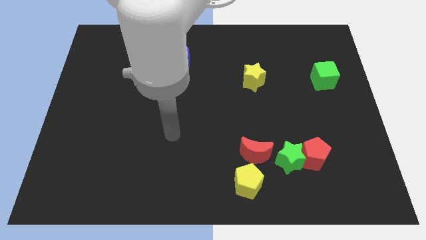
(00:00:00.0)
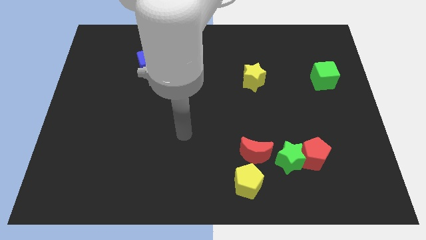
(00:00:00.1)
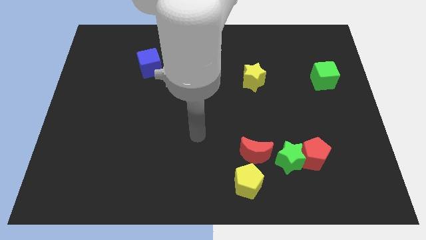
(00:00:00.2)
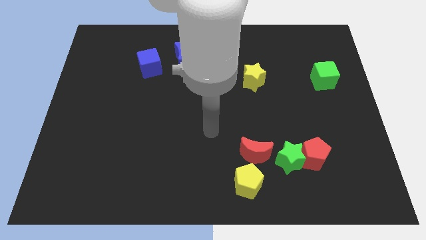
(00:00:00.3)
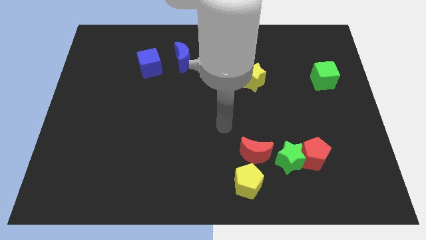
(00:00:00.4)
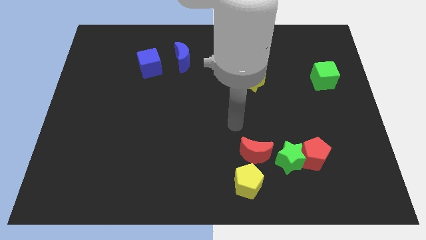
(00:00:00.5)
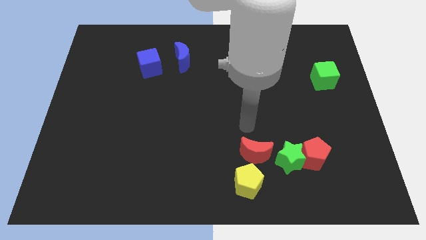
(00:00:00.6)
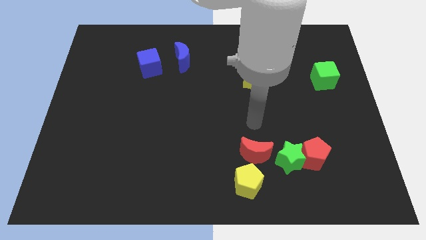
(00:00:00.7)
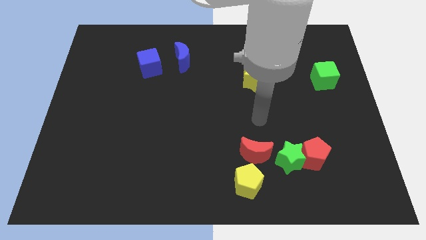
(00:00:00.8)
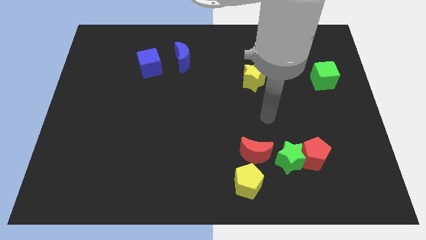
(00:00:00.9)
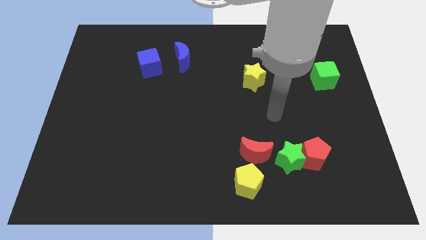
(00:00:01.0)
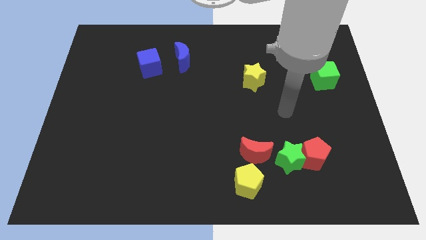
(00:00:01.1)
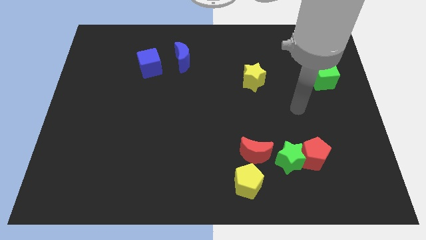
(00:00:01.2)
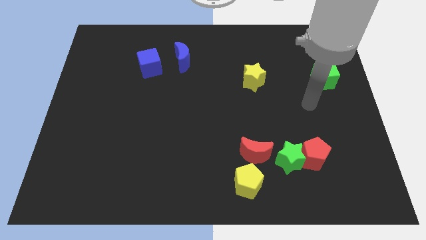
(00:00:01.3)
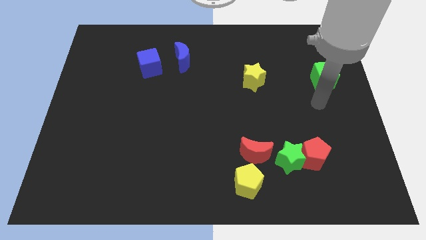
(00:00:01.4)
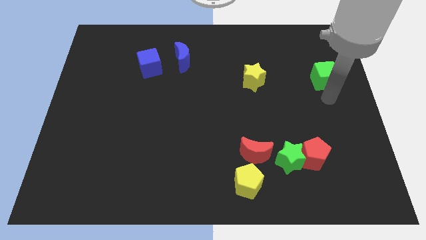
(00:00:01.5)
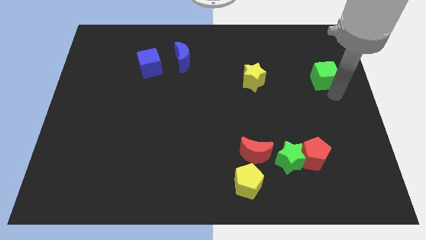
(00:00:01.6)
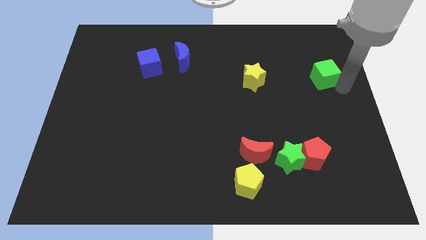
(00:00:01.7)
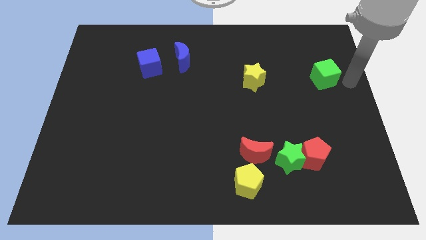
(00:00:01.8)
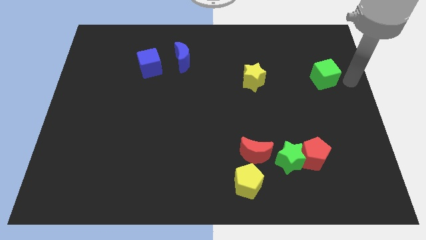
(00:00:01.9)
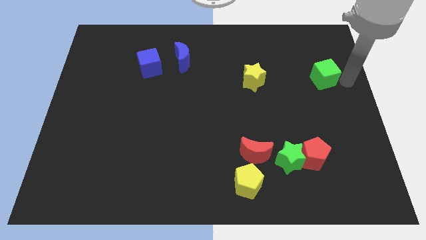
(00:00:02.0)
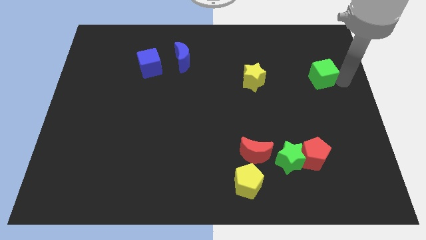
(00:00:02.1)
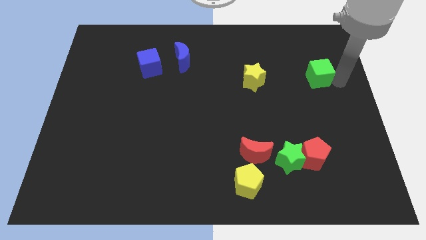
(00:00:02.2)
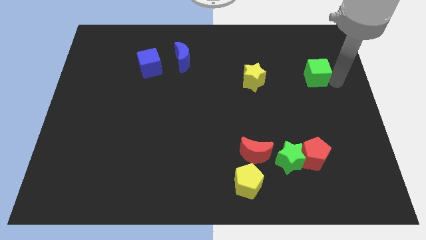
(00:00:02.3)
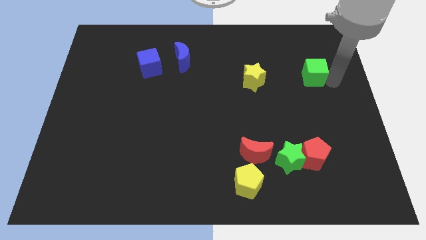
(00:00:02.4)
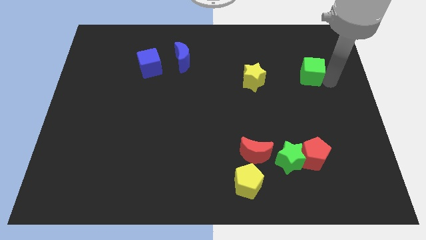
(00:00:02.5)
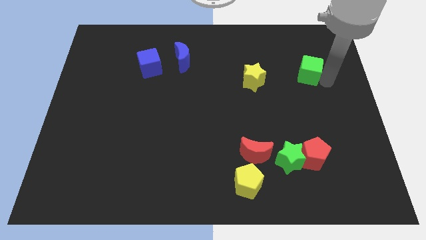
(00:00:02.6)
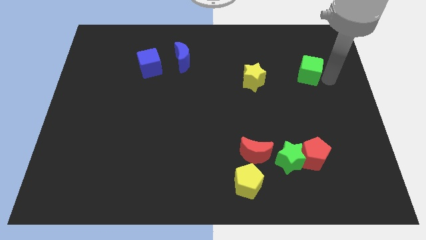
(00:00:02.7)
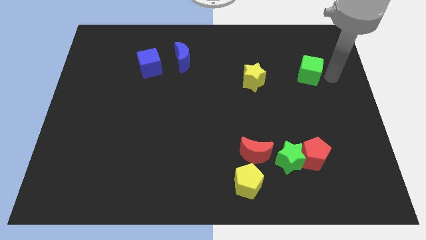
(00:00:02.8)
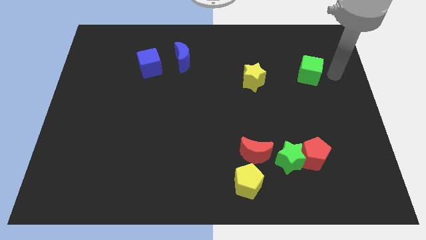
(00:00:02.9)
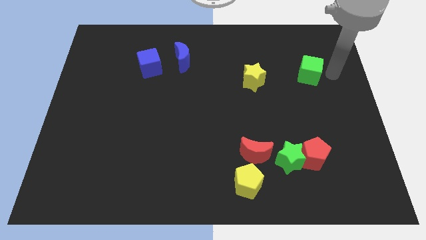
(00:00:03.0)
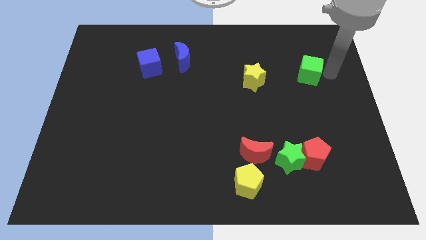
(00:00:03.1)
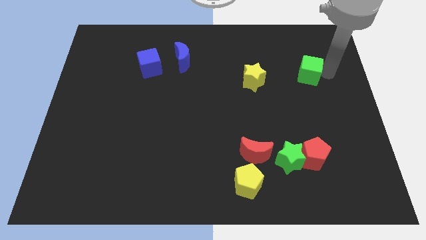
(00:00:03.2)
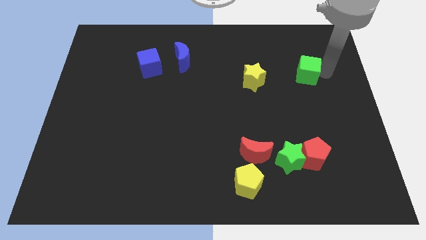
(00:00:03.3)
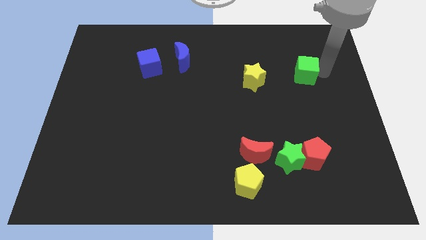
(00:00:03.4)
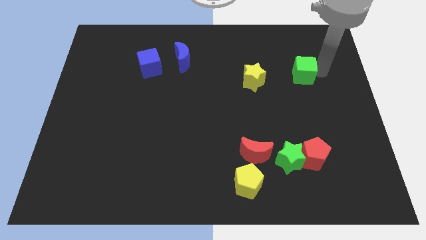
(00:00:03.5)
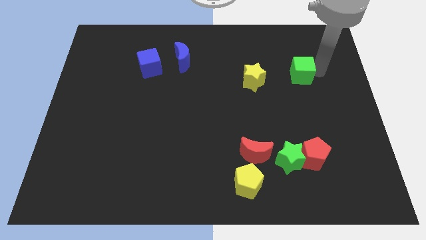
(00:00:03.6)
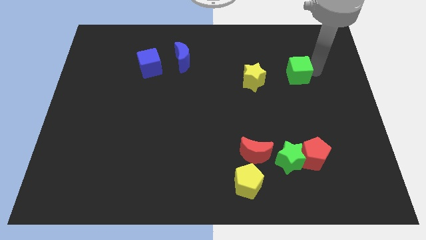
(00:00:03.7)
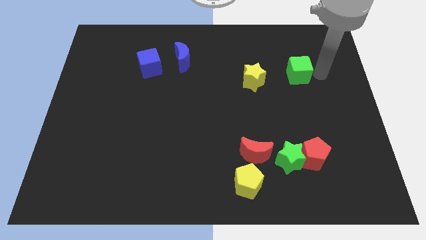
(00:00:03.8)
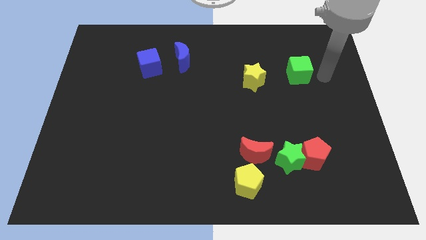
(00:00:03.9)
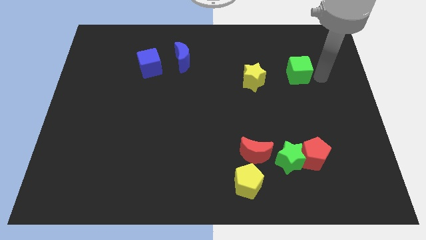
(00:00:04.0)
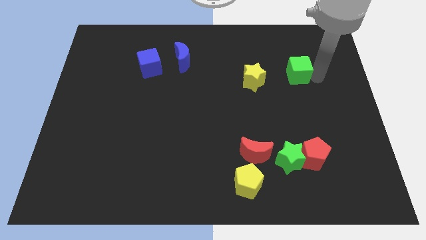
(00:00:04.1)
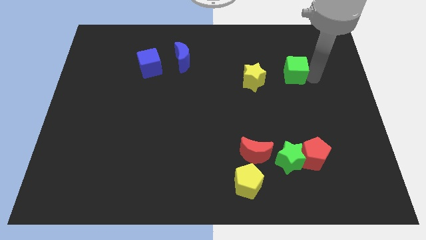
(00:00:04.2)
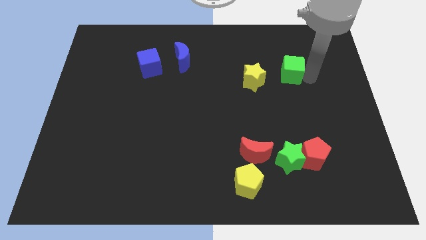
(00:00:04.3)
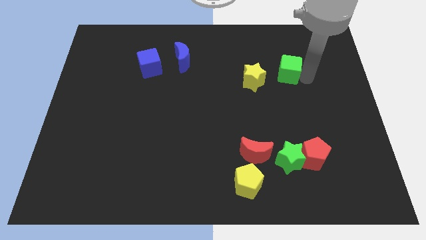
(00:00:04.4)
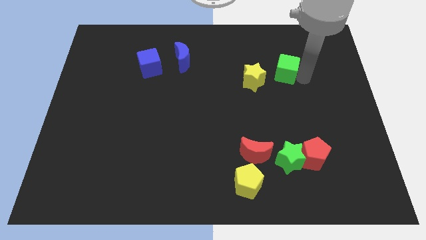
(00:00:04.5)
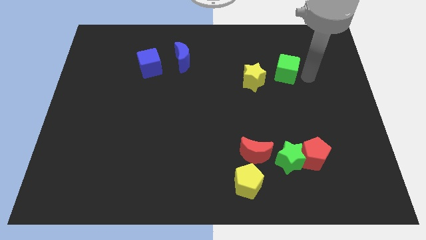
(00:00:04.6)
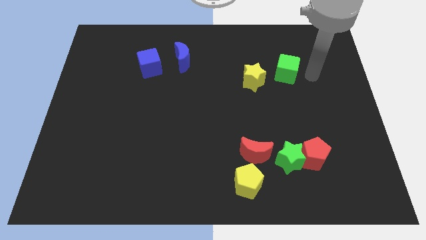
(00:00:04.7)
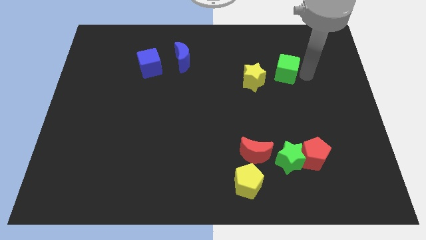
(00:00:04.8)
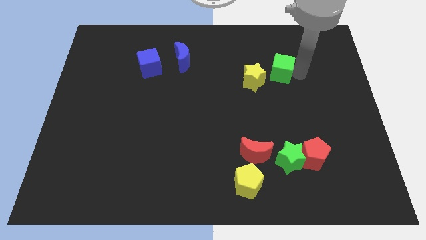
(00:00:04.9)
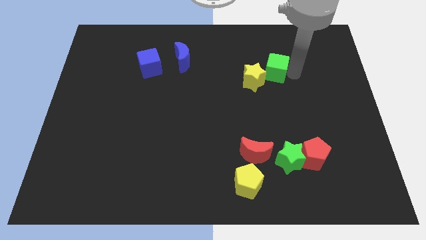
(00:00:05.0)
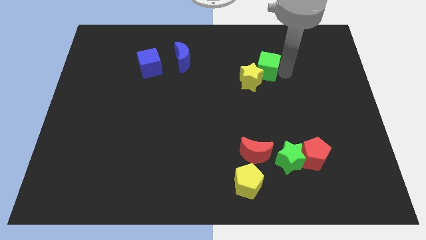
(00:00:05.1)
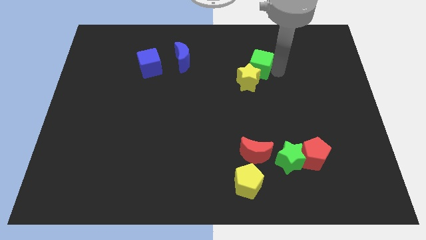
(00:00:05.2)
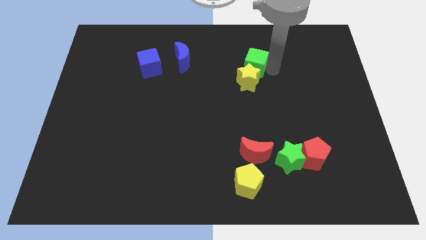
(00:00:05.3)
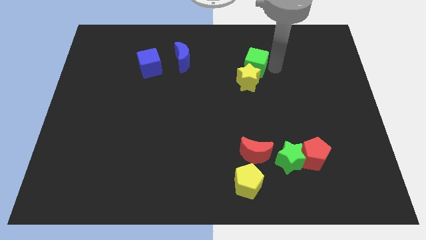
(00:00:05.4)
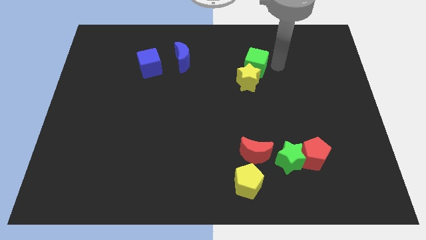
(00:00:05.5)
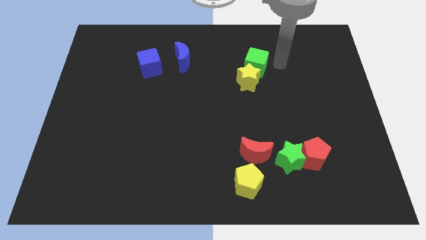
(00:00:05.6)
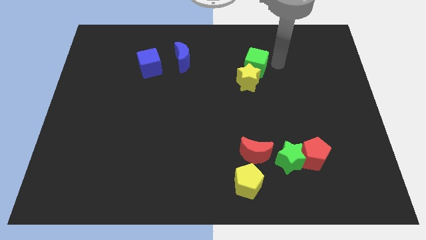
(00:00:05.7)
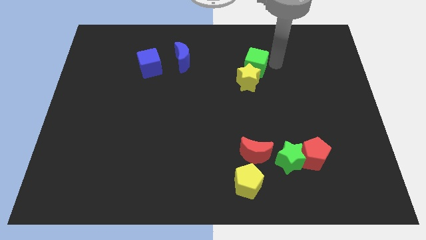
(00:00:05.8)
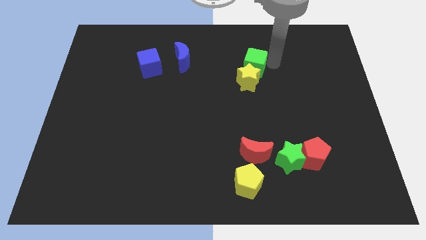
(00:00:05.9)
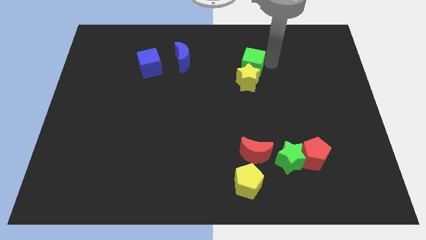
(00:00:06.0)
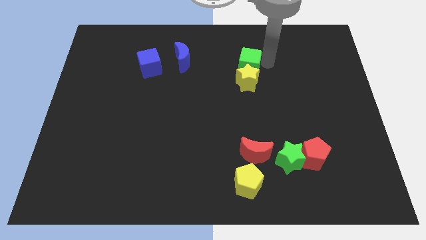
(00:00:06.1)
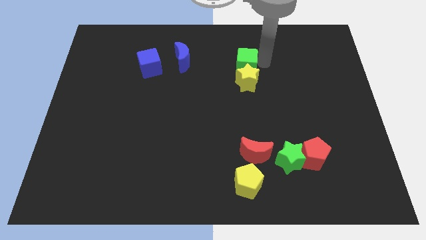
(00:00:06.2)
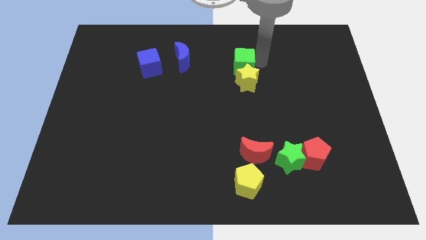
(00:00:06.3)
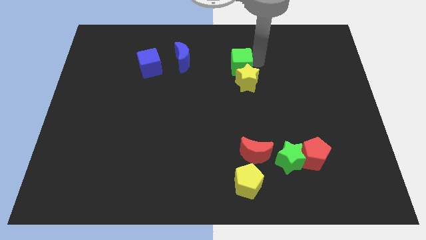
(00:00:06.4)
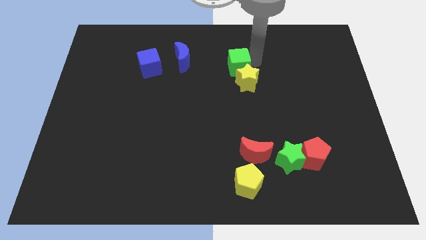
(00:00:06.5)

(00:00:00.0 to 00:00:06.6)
move the green cube to the left

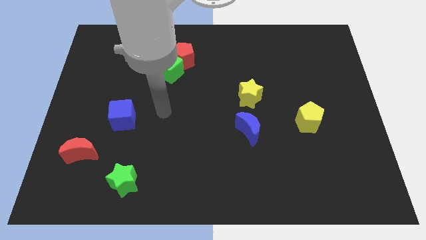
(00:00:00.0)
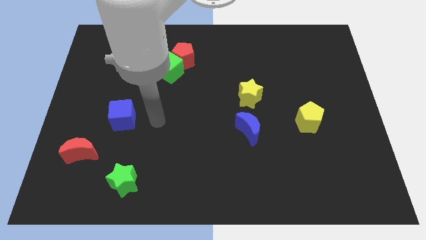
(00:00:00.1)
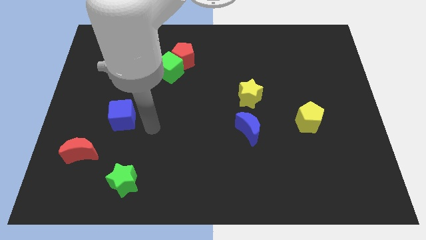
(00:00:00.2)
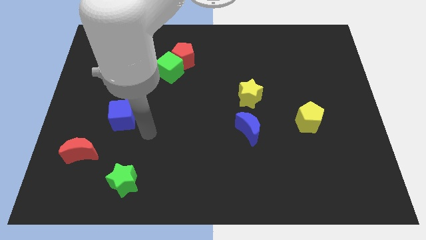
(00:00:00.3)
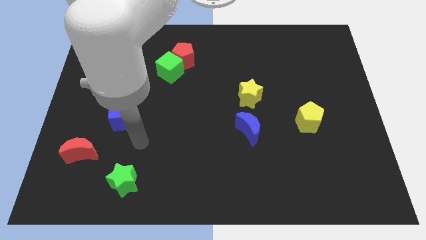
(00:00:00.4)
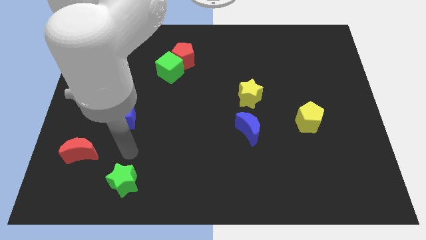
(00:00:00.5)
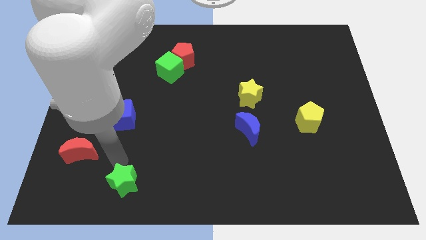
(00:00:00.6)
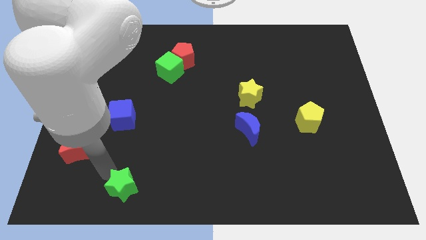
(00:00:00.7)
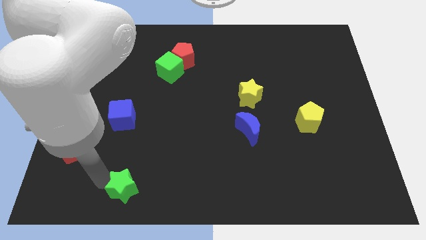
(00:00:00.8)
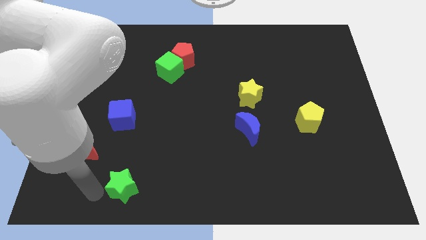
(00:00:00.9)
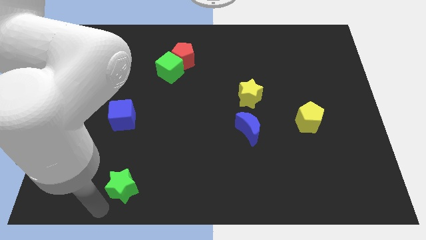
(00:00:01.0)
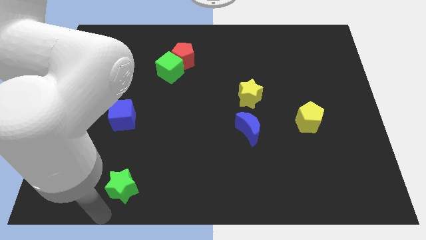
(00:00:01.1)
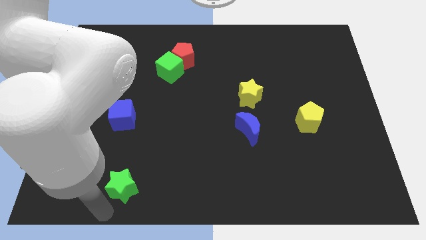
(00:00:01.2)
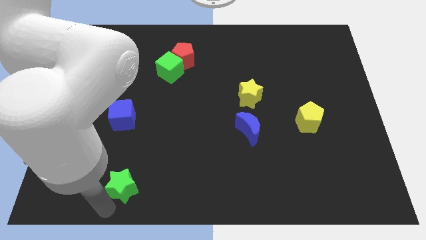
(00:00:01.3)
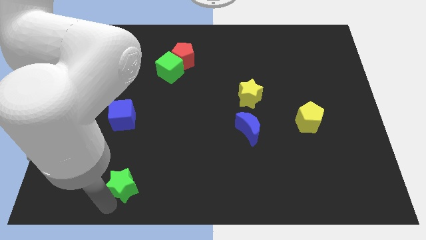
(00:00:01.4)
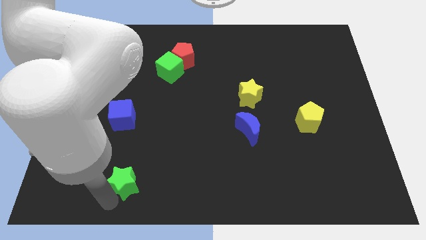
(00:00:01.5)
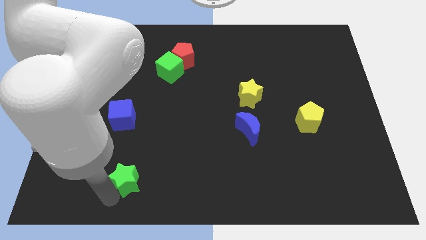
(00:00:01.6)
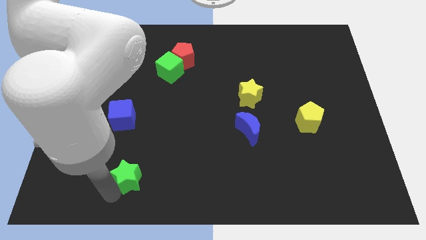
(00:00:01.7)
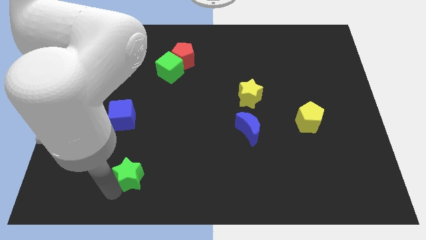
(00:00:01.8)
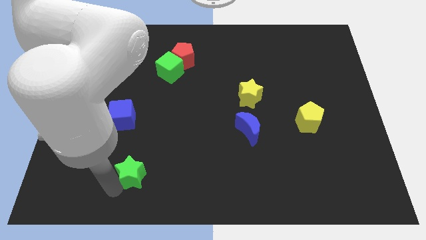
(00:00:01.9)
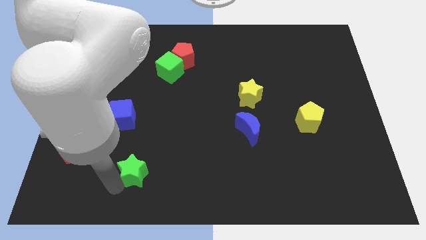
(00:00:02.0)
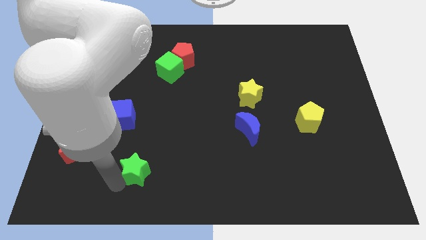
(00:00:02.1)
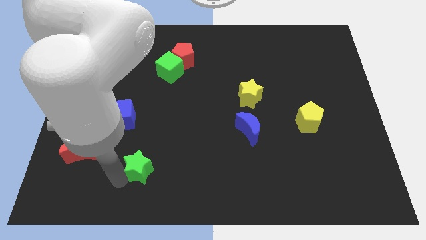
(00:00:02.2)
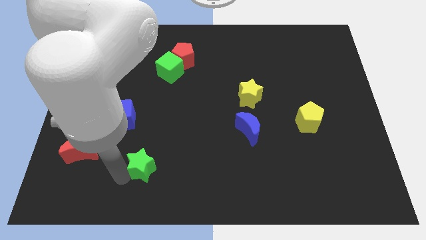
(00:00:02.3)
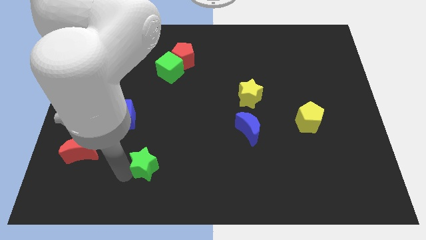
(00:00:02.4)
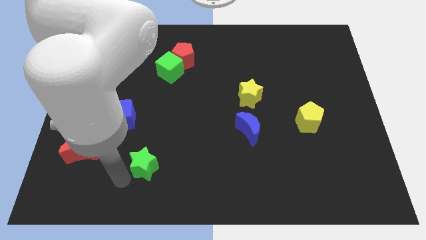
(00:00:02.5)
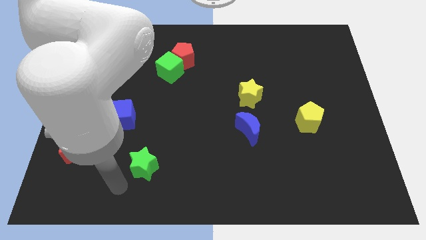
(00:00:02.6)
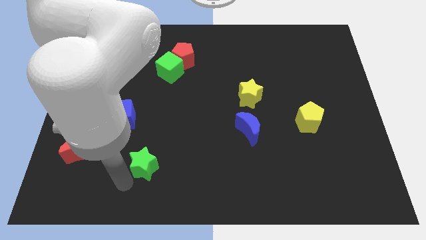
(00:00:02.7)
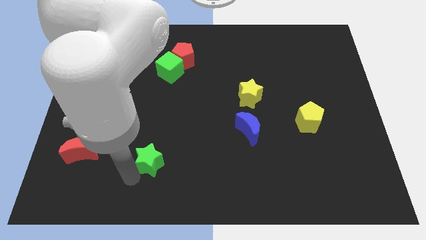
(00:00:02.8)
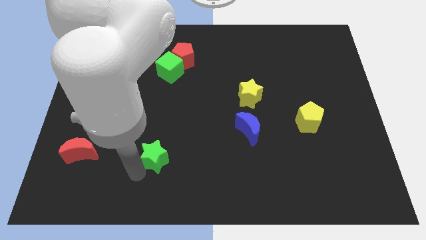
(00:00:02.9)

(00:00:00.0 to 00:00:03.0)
push the green star diagonally upwards and to the right slightly
